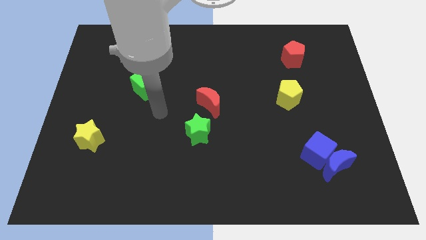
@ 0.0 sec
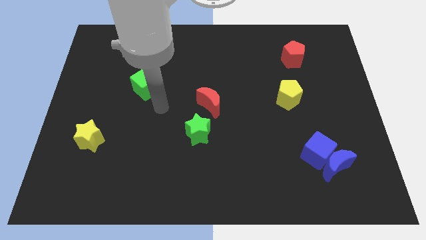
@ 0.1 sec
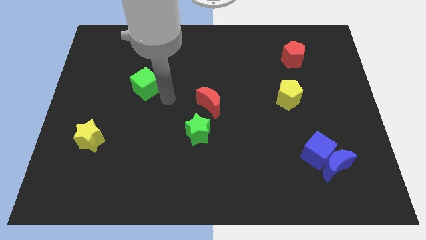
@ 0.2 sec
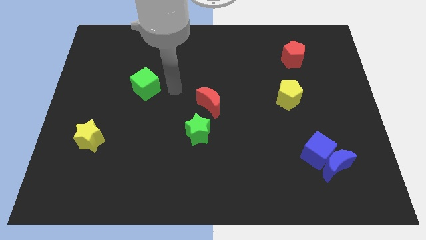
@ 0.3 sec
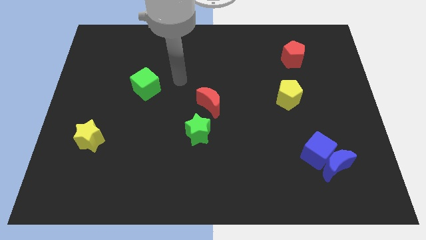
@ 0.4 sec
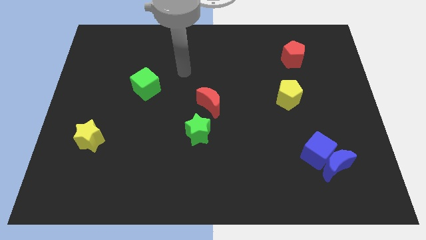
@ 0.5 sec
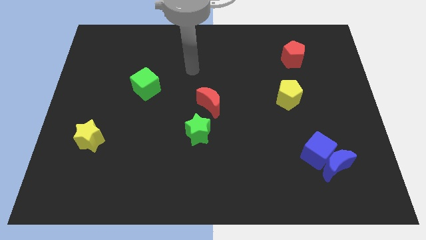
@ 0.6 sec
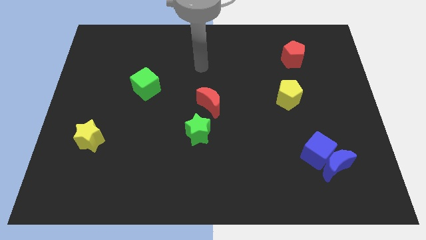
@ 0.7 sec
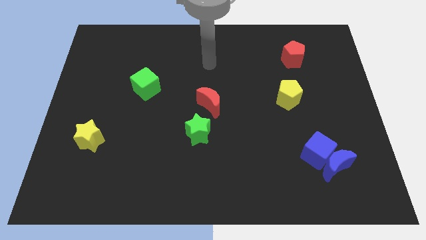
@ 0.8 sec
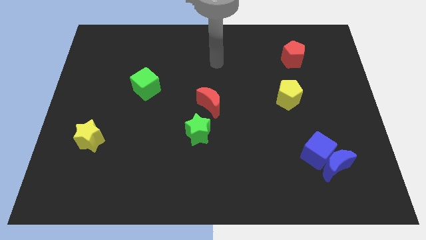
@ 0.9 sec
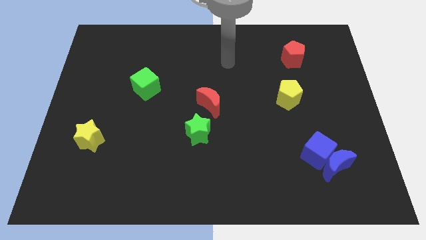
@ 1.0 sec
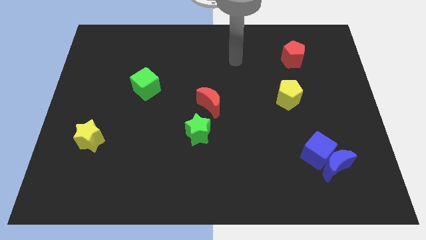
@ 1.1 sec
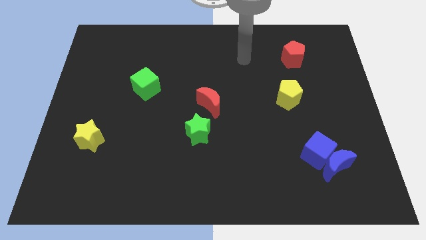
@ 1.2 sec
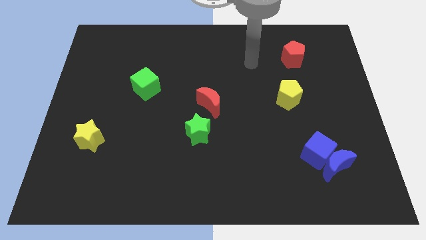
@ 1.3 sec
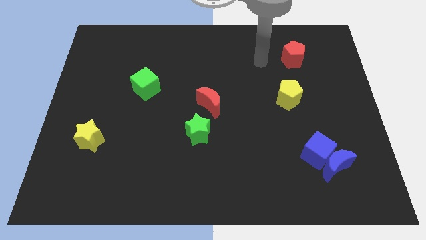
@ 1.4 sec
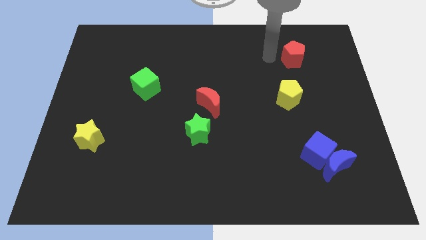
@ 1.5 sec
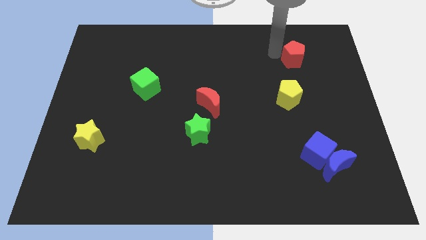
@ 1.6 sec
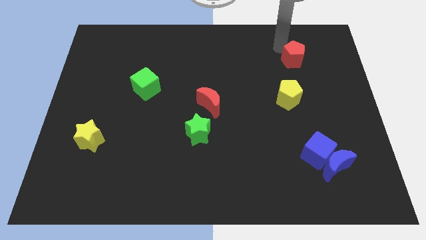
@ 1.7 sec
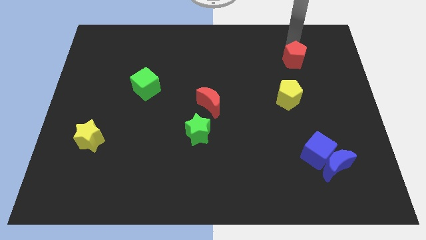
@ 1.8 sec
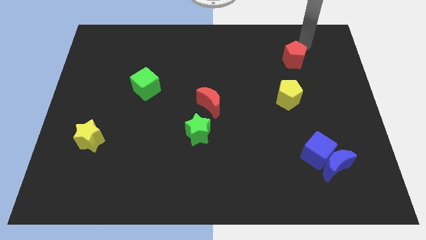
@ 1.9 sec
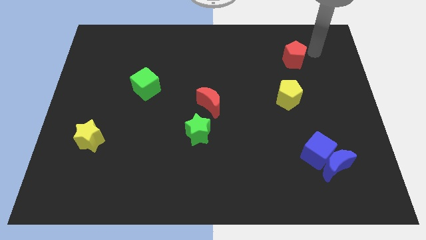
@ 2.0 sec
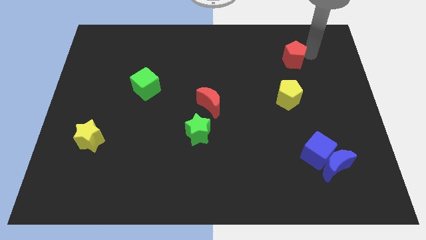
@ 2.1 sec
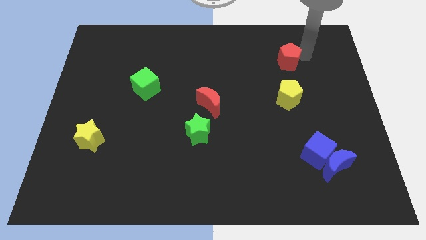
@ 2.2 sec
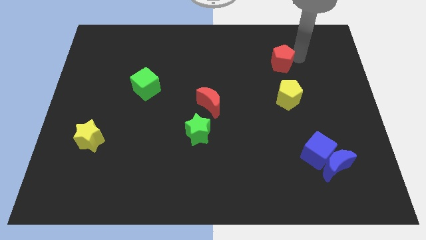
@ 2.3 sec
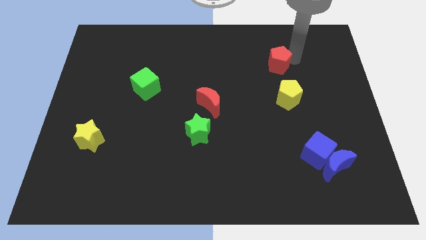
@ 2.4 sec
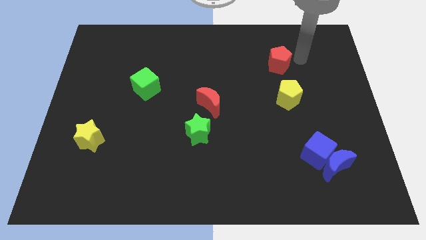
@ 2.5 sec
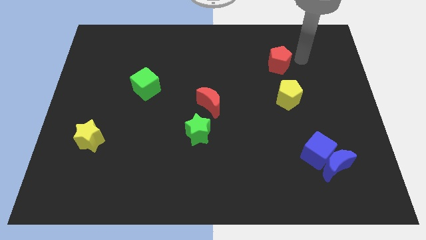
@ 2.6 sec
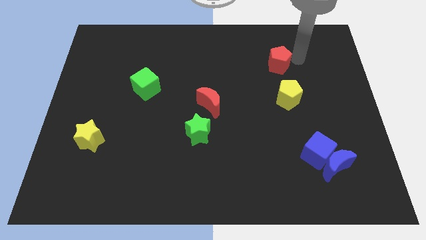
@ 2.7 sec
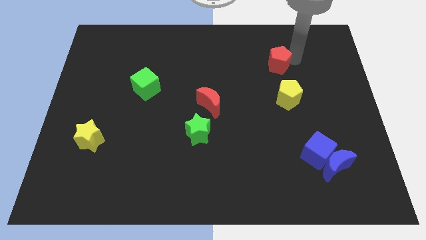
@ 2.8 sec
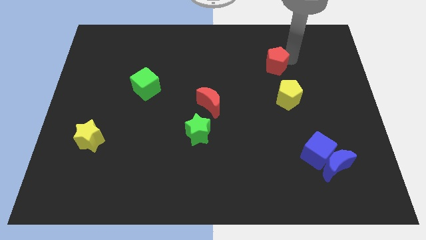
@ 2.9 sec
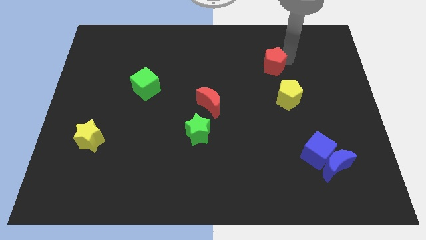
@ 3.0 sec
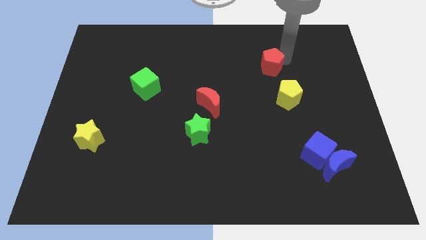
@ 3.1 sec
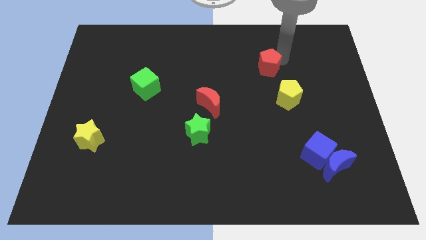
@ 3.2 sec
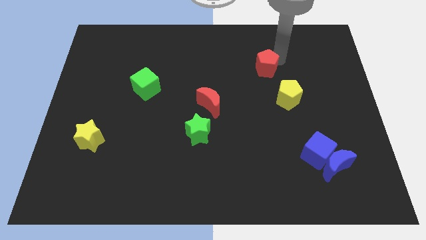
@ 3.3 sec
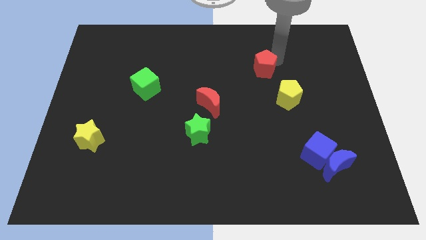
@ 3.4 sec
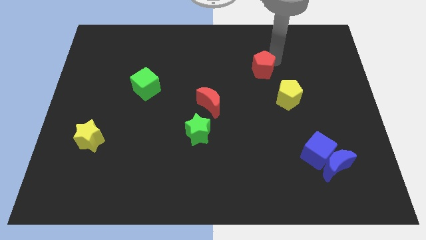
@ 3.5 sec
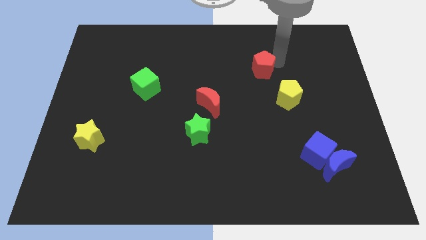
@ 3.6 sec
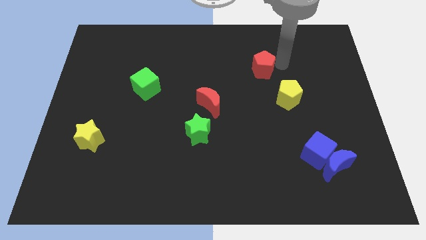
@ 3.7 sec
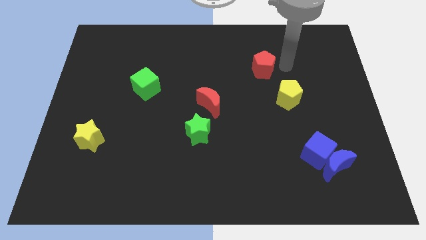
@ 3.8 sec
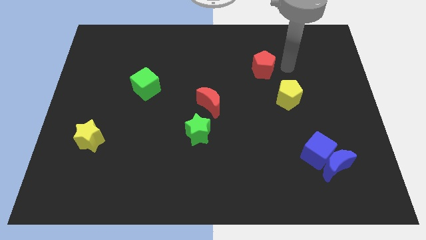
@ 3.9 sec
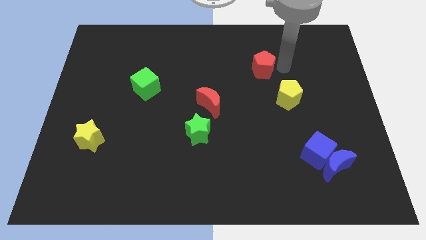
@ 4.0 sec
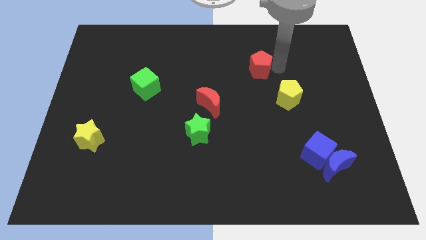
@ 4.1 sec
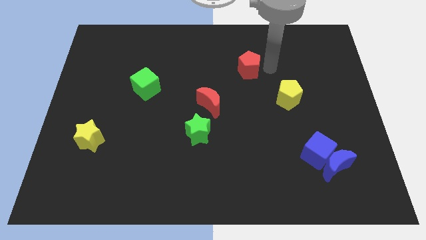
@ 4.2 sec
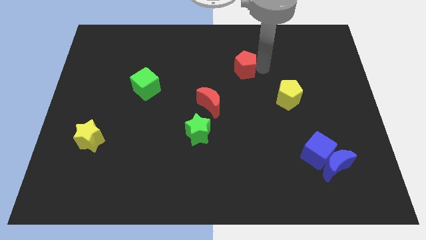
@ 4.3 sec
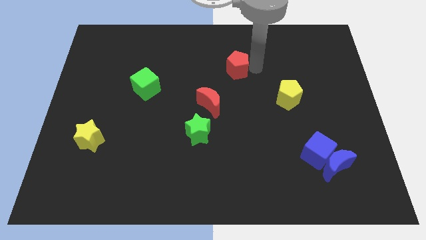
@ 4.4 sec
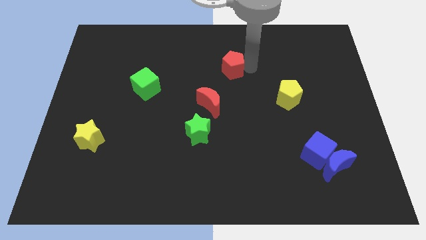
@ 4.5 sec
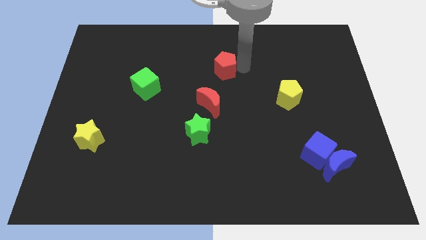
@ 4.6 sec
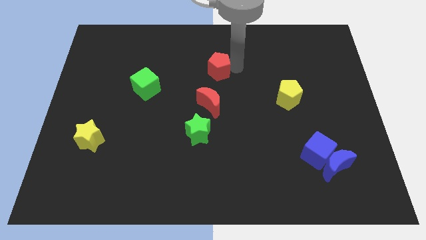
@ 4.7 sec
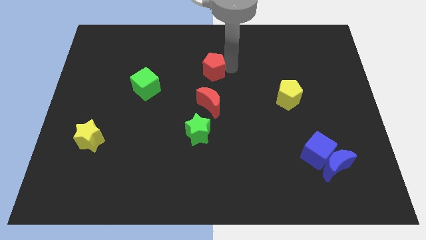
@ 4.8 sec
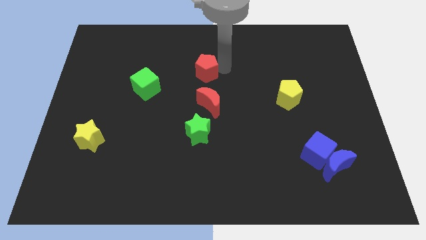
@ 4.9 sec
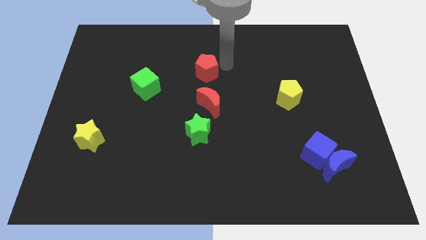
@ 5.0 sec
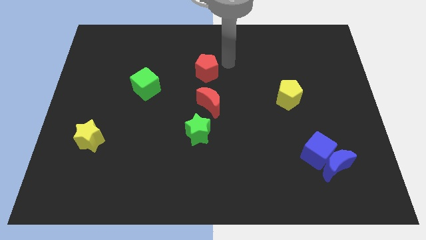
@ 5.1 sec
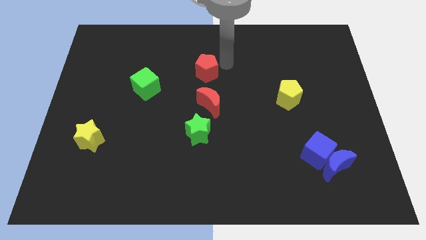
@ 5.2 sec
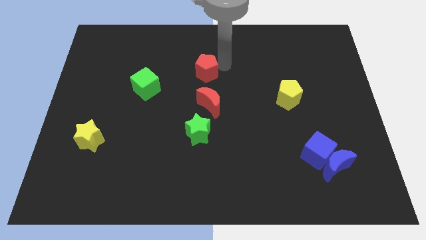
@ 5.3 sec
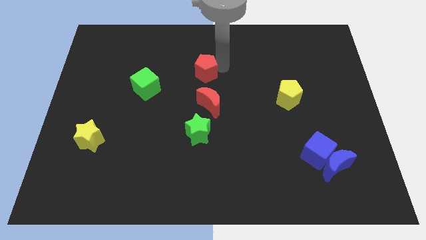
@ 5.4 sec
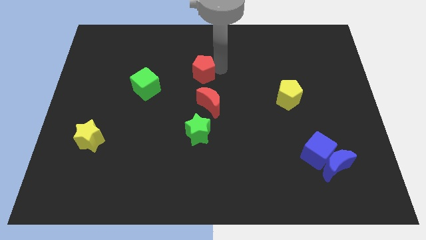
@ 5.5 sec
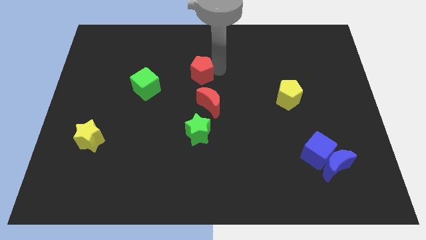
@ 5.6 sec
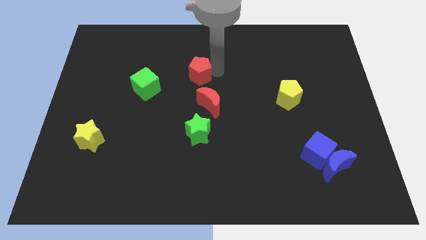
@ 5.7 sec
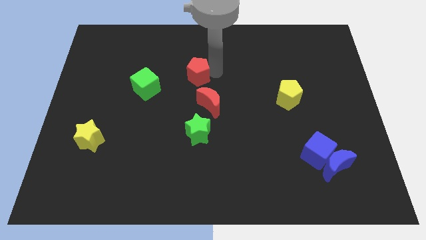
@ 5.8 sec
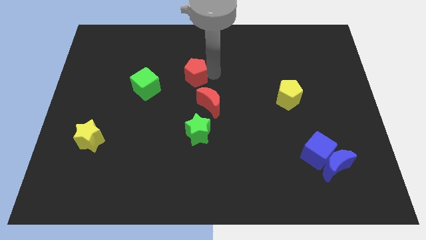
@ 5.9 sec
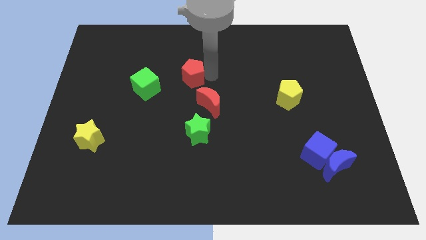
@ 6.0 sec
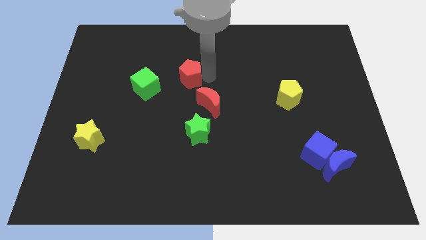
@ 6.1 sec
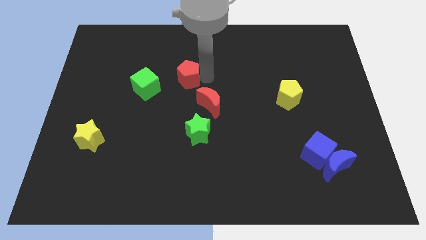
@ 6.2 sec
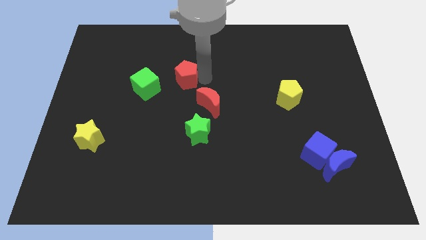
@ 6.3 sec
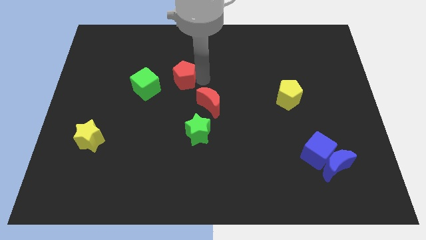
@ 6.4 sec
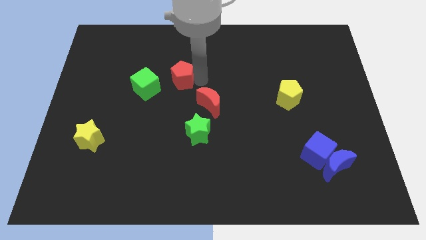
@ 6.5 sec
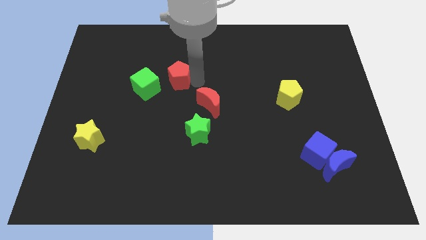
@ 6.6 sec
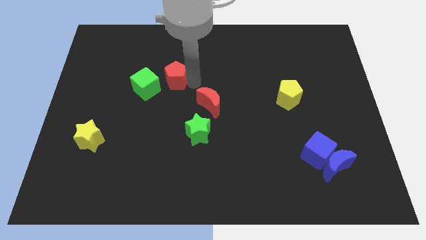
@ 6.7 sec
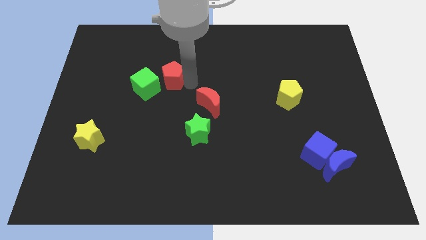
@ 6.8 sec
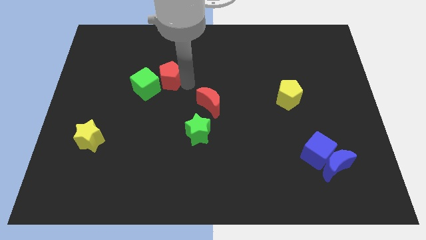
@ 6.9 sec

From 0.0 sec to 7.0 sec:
put the red pentagon next to the green cube
